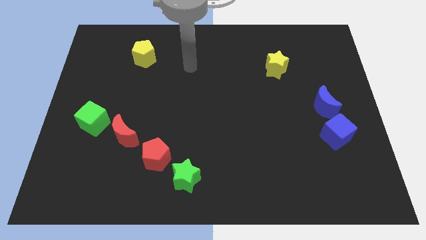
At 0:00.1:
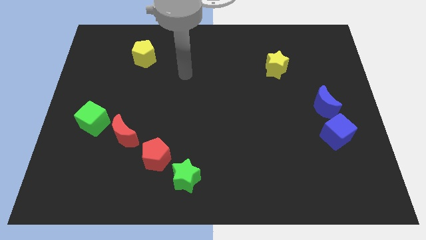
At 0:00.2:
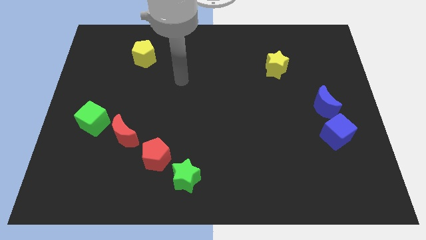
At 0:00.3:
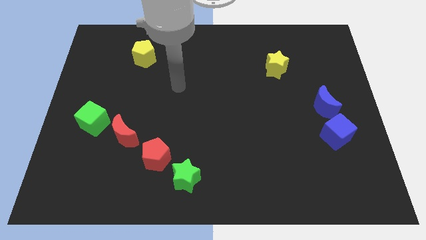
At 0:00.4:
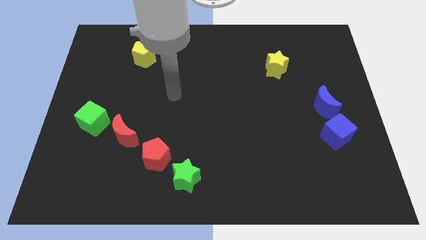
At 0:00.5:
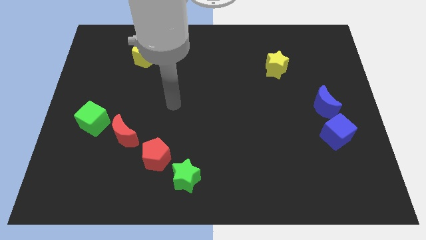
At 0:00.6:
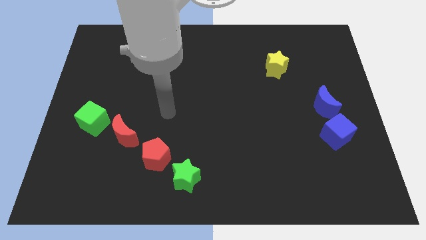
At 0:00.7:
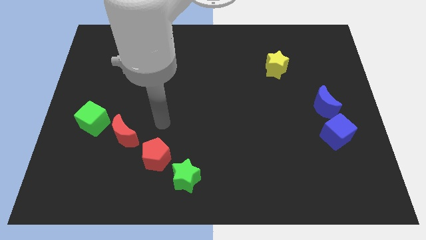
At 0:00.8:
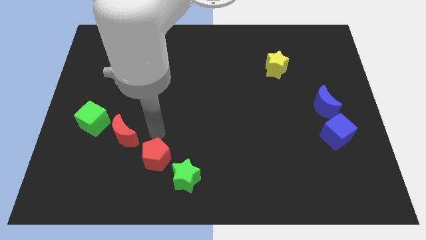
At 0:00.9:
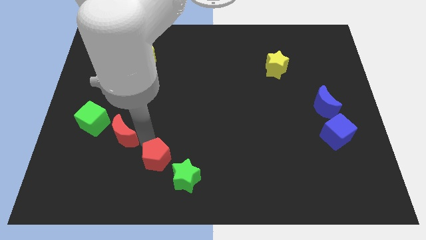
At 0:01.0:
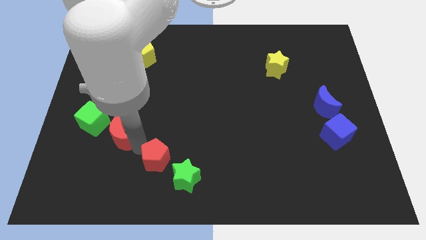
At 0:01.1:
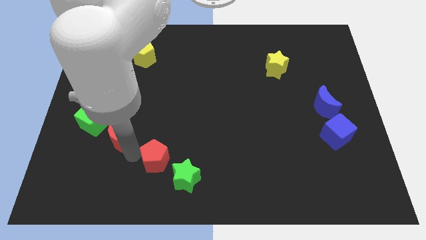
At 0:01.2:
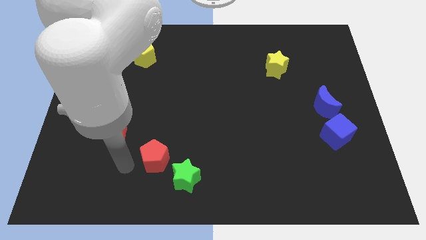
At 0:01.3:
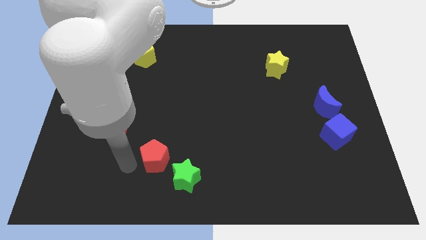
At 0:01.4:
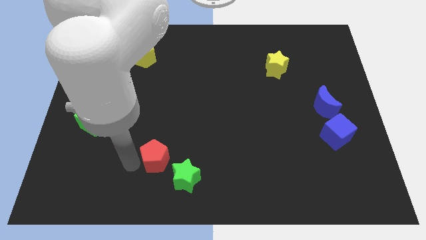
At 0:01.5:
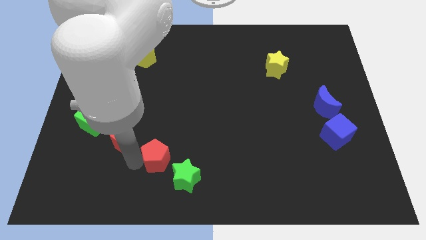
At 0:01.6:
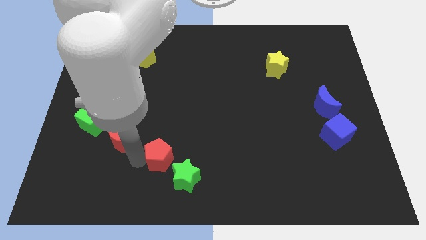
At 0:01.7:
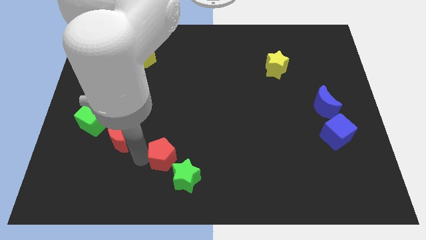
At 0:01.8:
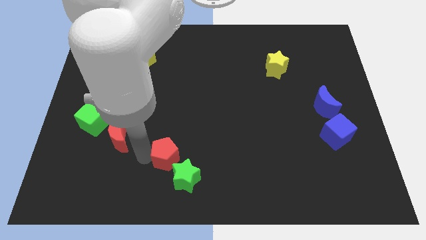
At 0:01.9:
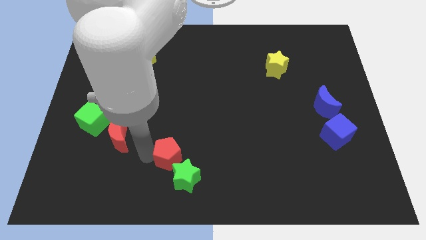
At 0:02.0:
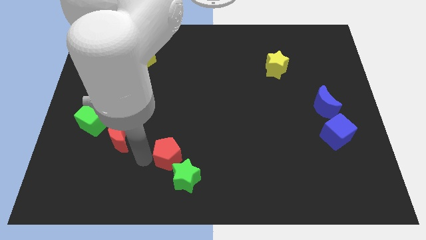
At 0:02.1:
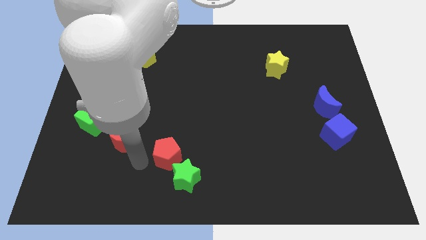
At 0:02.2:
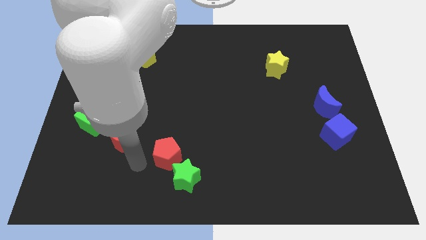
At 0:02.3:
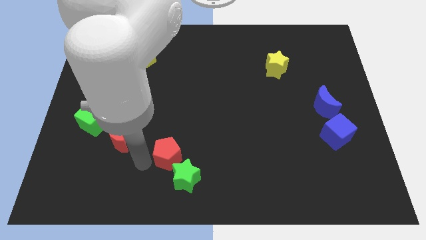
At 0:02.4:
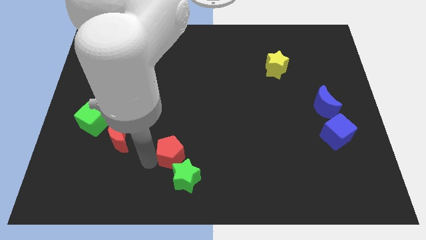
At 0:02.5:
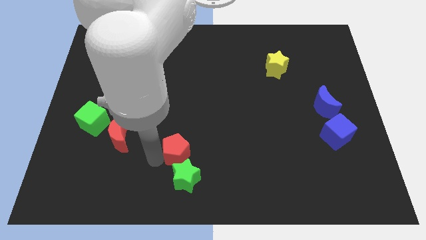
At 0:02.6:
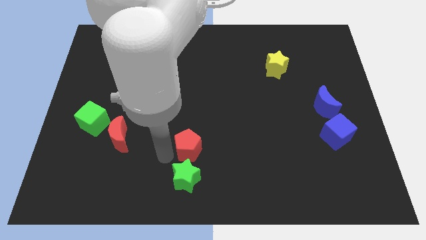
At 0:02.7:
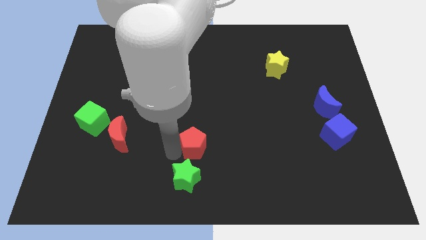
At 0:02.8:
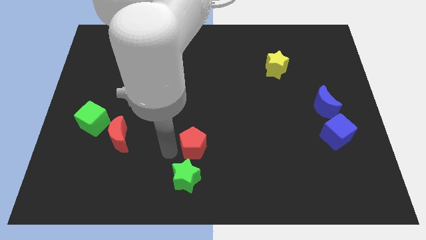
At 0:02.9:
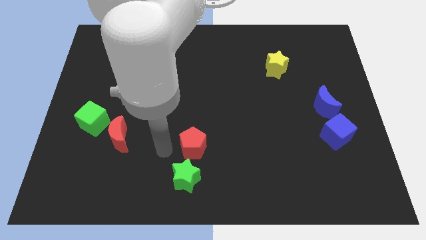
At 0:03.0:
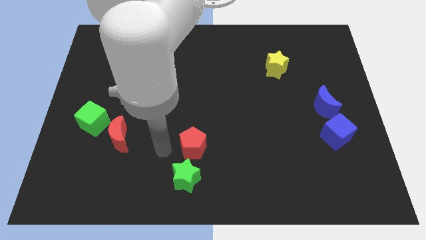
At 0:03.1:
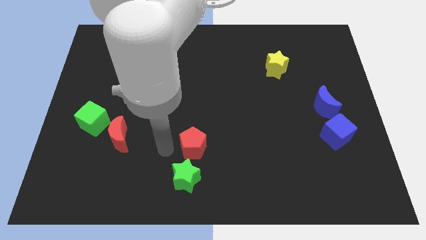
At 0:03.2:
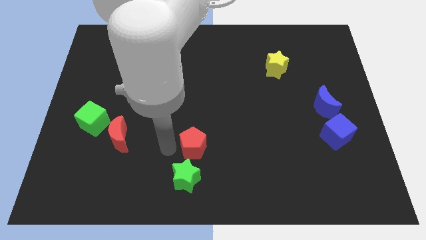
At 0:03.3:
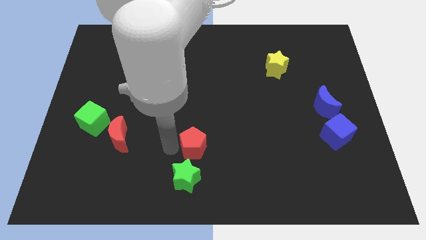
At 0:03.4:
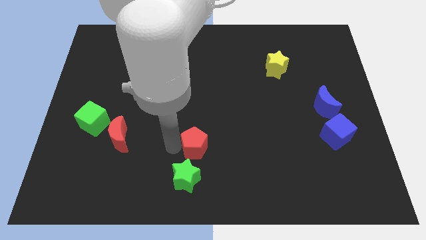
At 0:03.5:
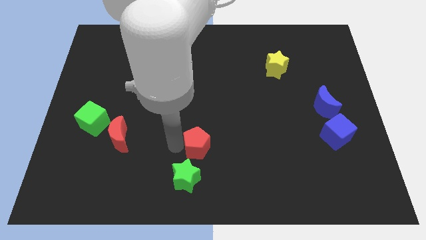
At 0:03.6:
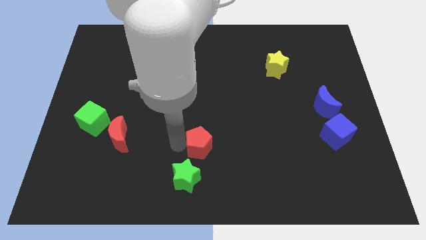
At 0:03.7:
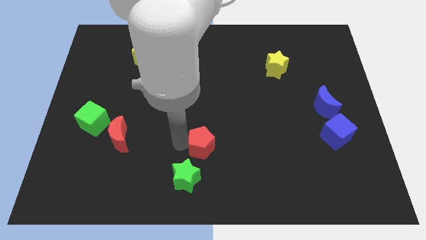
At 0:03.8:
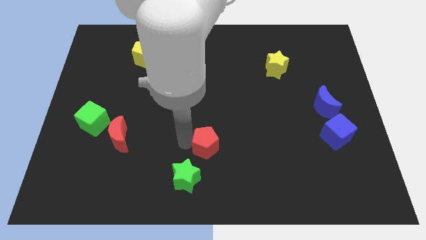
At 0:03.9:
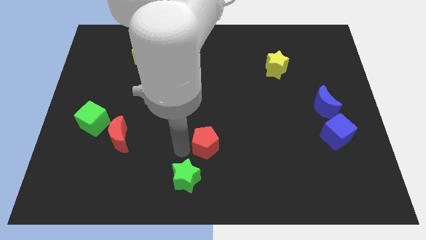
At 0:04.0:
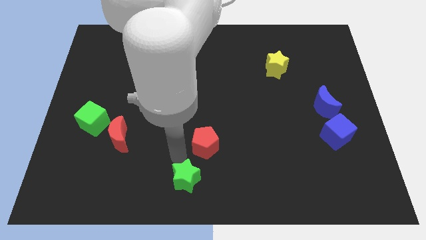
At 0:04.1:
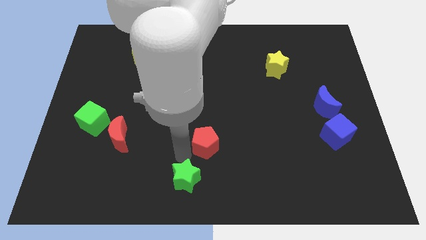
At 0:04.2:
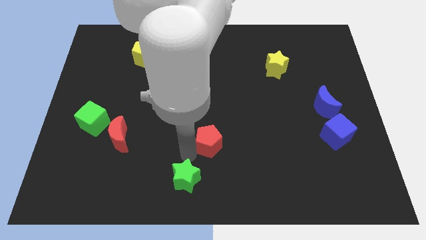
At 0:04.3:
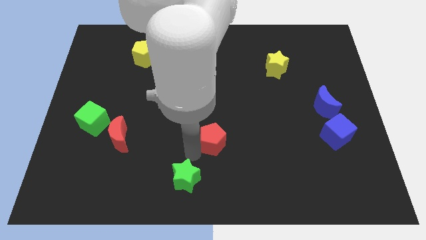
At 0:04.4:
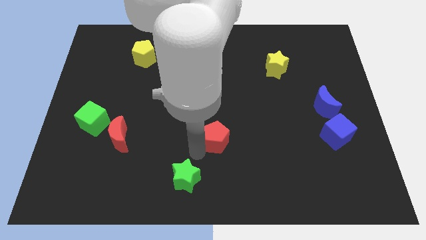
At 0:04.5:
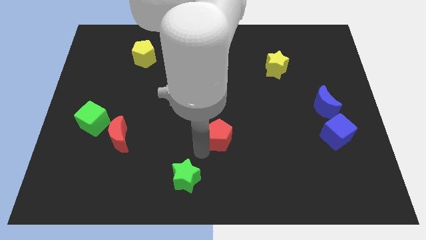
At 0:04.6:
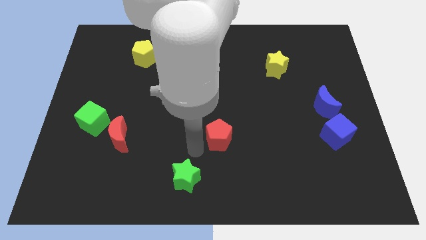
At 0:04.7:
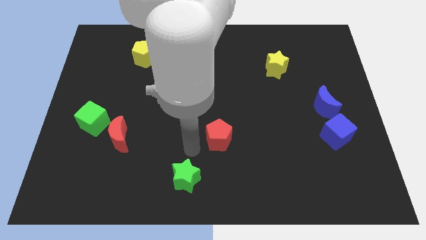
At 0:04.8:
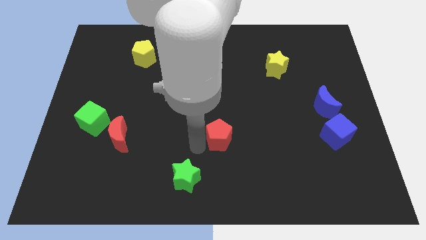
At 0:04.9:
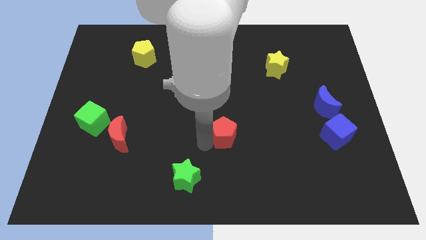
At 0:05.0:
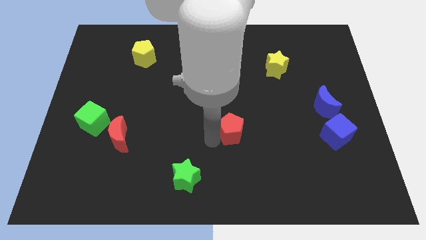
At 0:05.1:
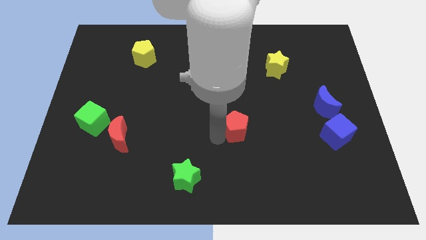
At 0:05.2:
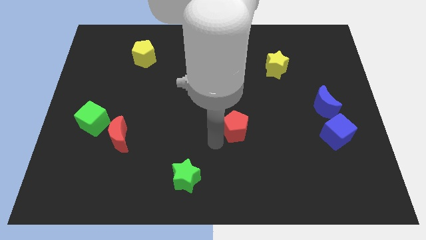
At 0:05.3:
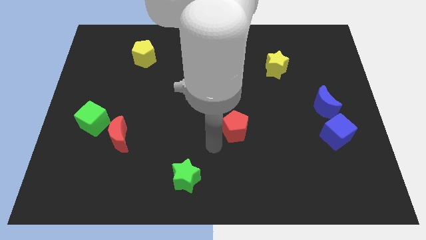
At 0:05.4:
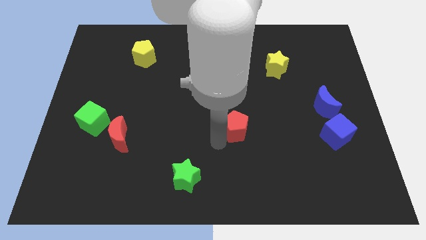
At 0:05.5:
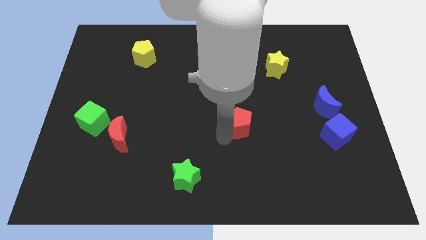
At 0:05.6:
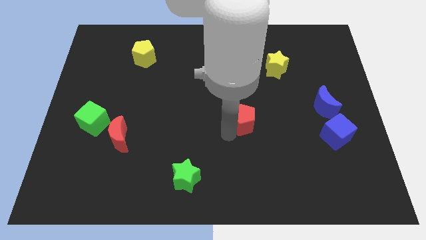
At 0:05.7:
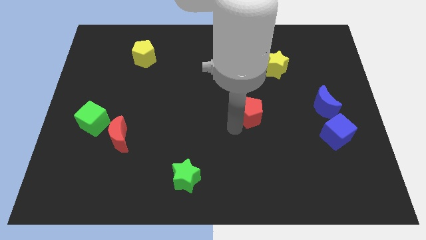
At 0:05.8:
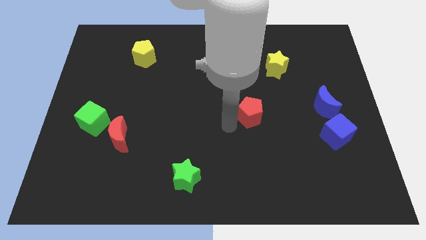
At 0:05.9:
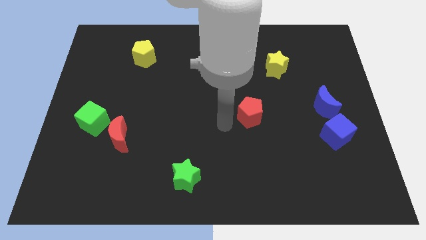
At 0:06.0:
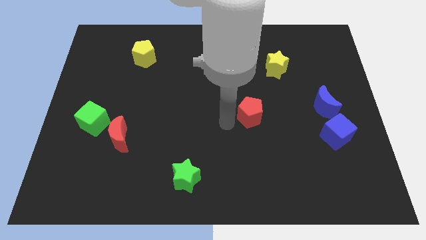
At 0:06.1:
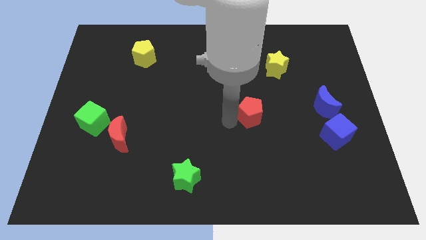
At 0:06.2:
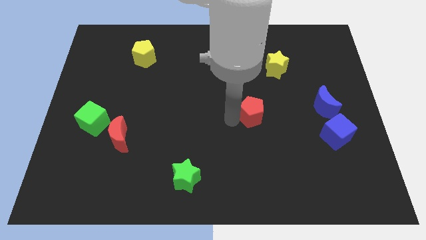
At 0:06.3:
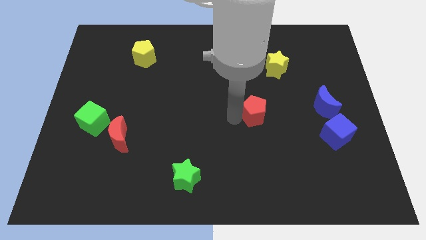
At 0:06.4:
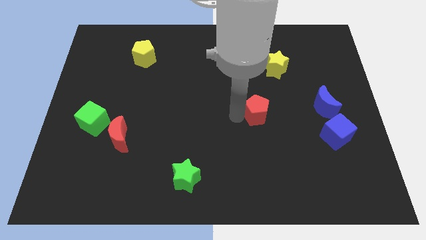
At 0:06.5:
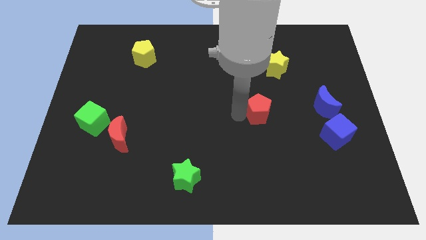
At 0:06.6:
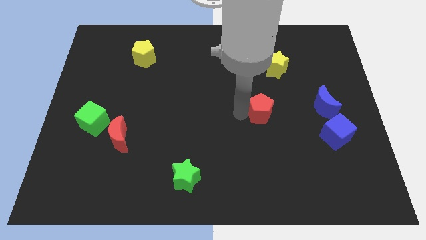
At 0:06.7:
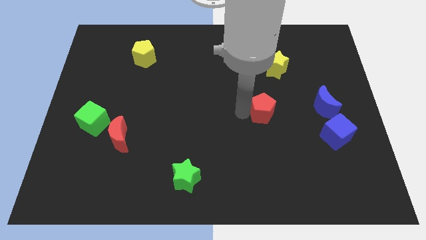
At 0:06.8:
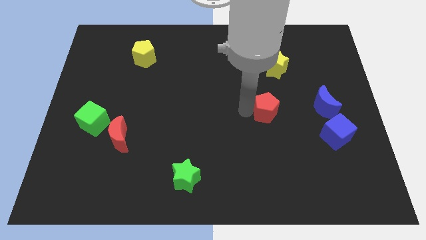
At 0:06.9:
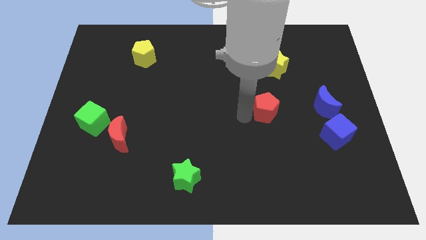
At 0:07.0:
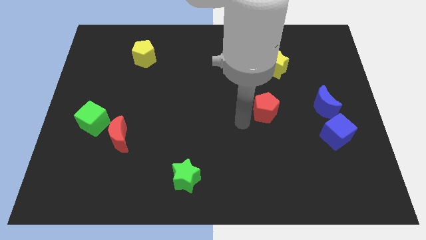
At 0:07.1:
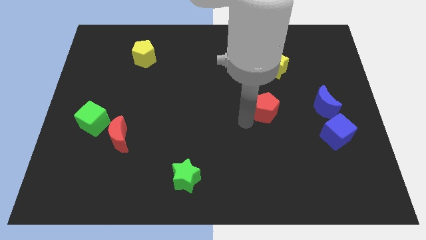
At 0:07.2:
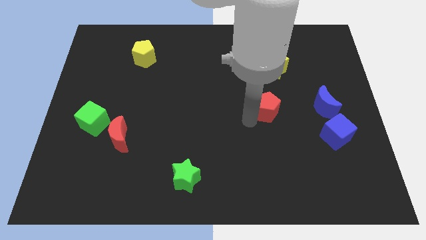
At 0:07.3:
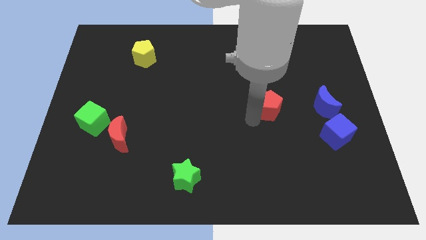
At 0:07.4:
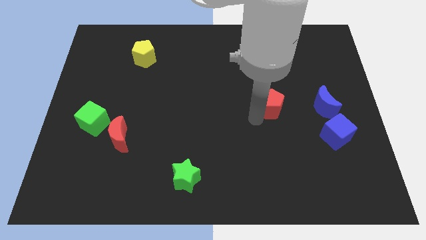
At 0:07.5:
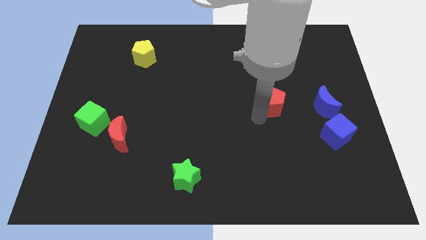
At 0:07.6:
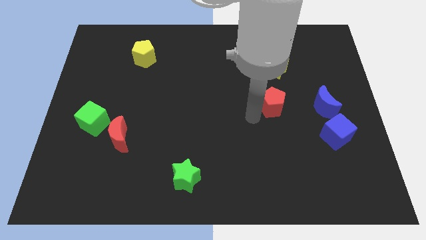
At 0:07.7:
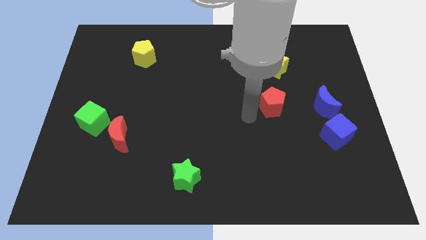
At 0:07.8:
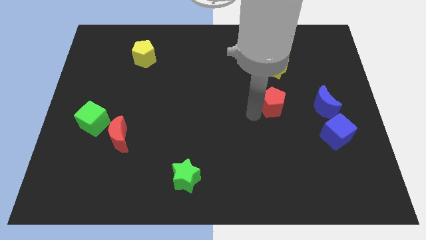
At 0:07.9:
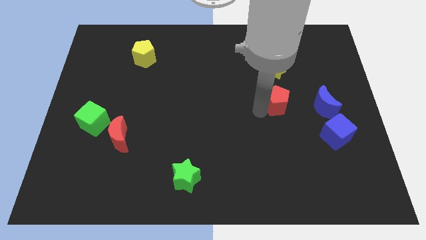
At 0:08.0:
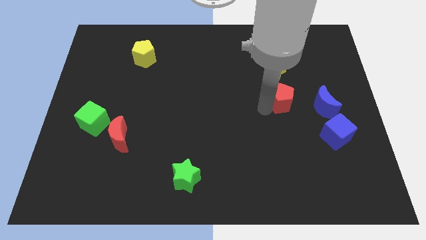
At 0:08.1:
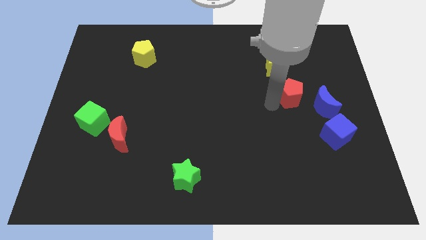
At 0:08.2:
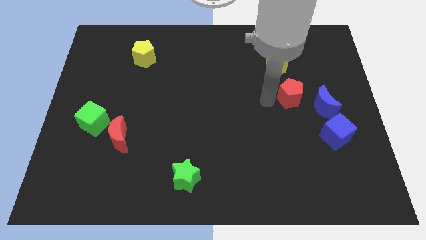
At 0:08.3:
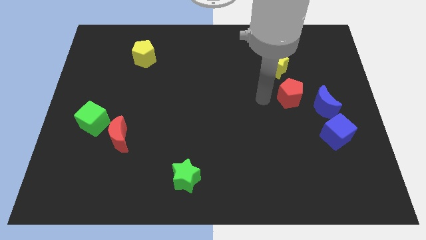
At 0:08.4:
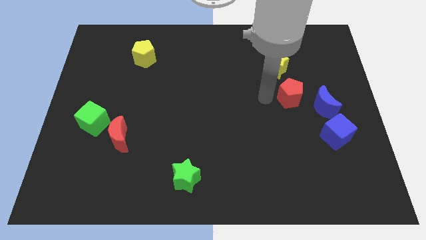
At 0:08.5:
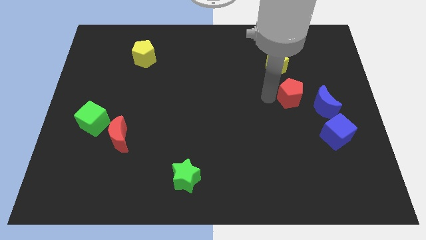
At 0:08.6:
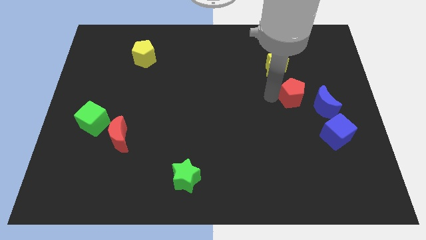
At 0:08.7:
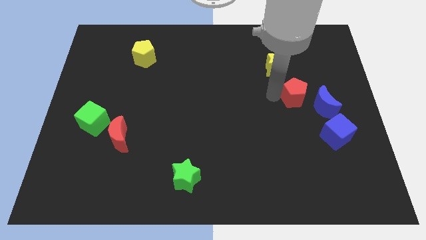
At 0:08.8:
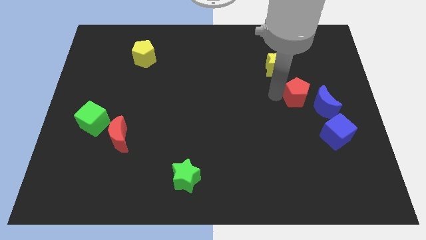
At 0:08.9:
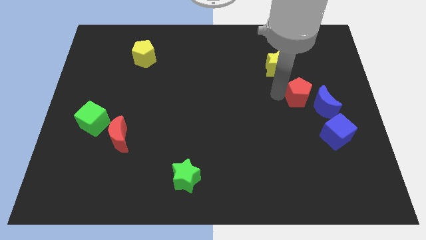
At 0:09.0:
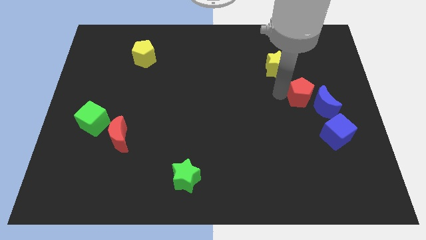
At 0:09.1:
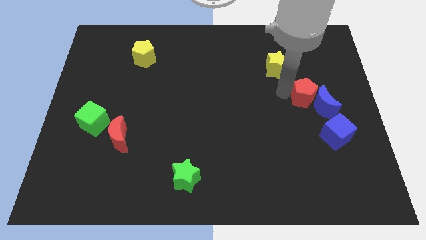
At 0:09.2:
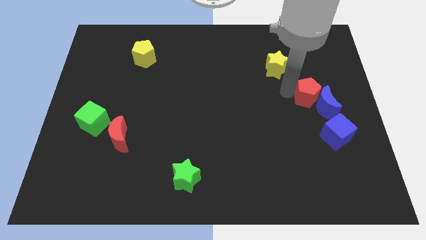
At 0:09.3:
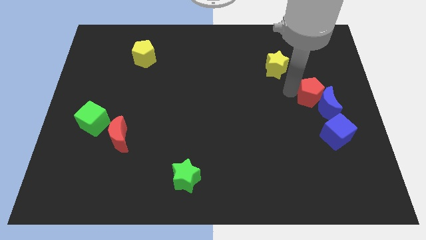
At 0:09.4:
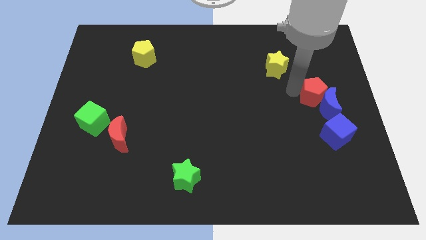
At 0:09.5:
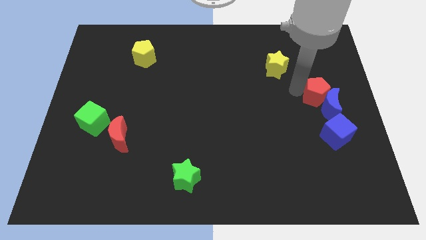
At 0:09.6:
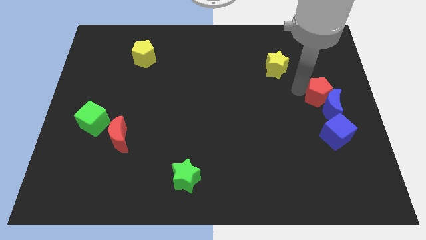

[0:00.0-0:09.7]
push the red pentagon to the right side
